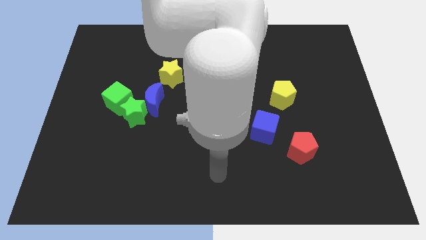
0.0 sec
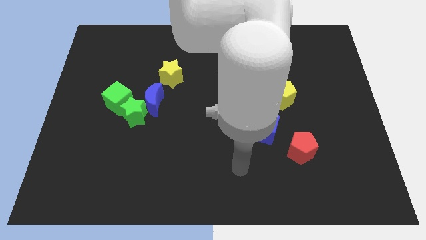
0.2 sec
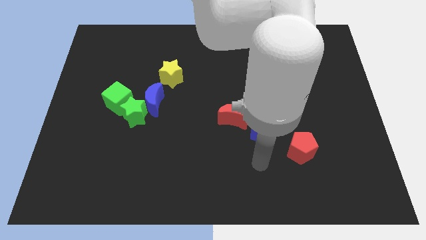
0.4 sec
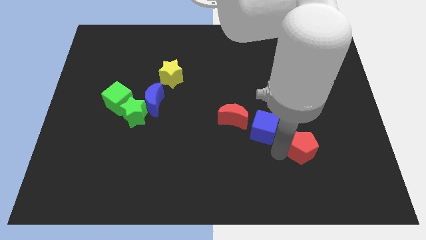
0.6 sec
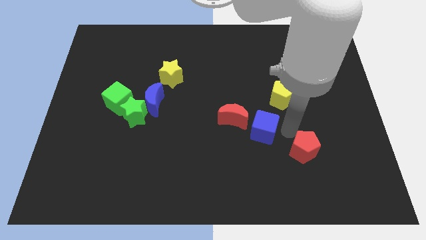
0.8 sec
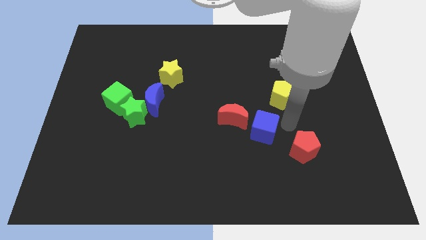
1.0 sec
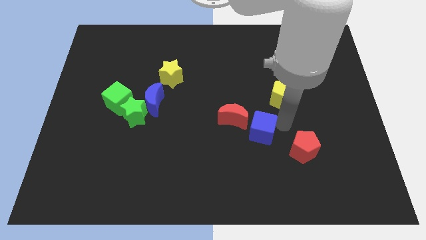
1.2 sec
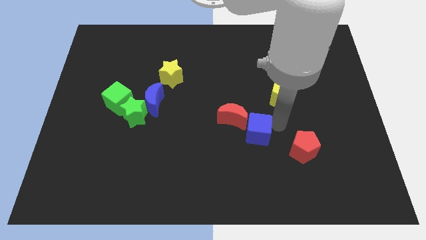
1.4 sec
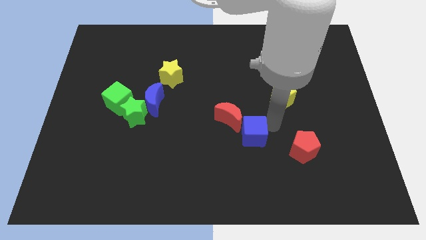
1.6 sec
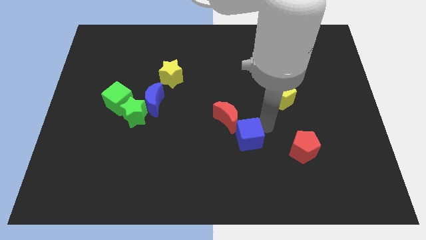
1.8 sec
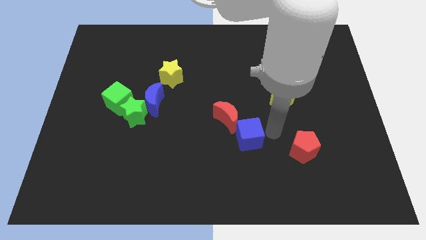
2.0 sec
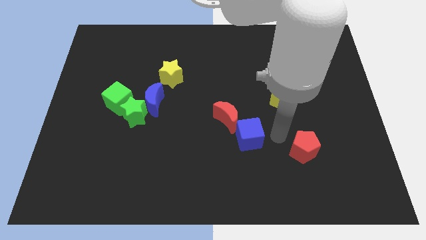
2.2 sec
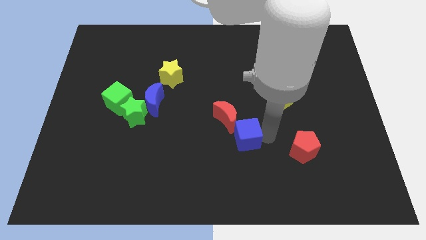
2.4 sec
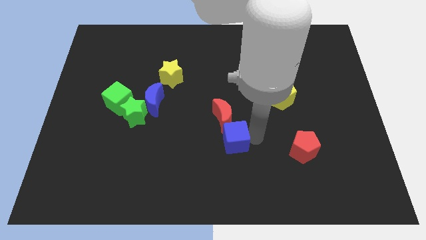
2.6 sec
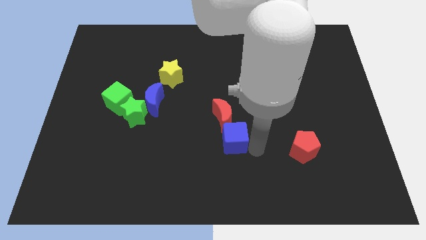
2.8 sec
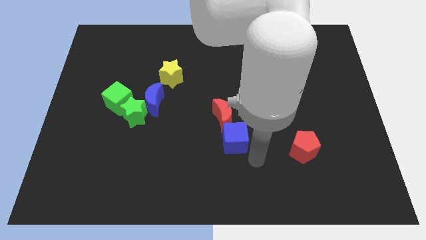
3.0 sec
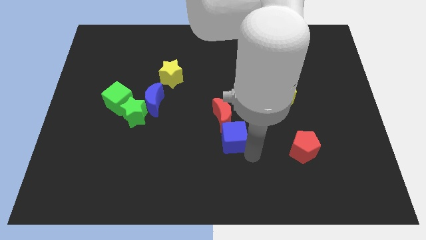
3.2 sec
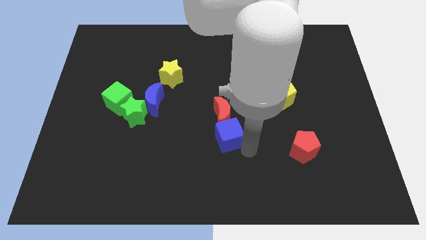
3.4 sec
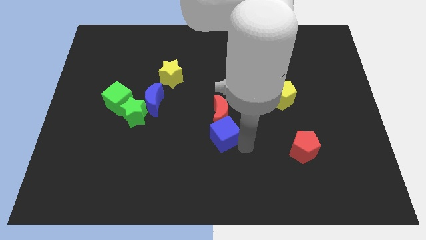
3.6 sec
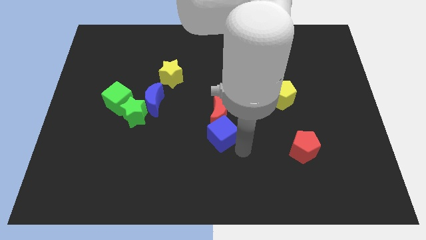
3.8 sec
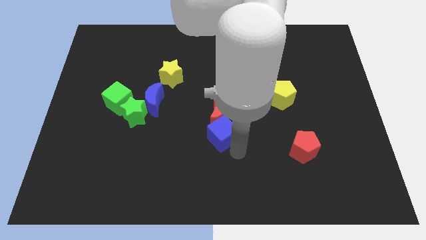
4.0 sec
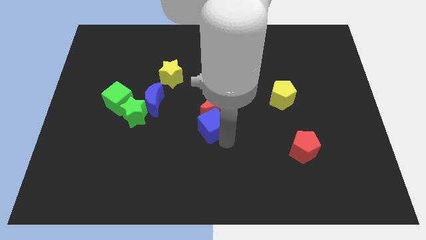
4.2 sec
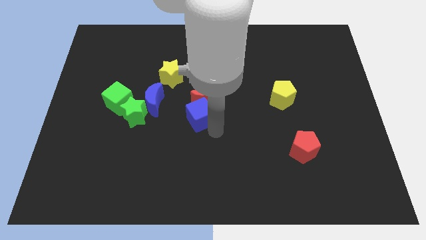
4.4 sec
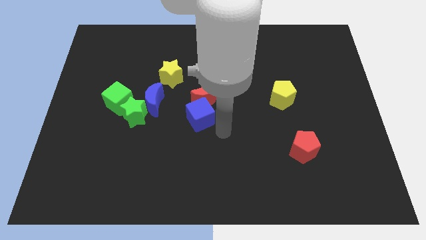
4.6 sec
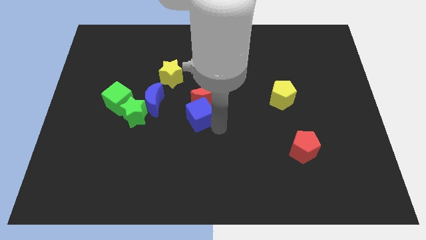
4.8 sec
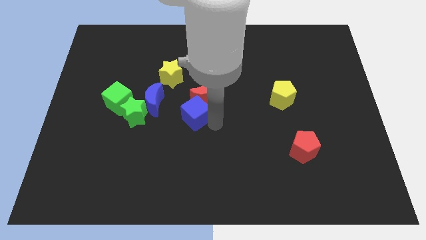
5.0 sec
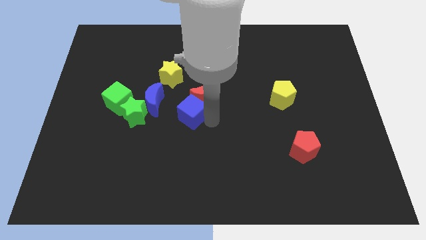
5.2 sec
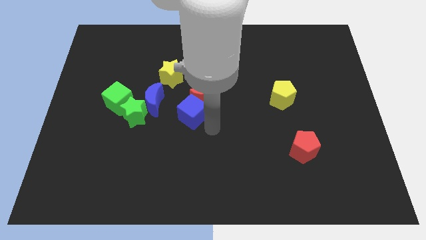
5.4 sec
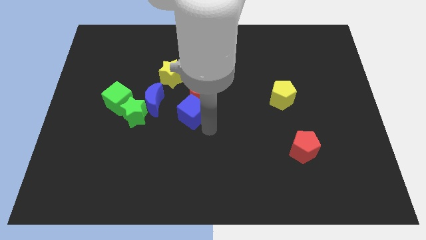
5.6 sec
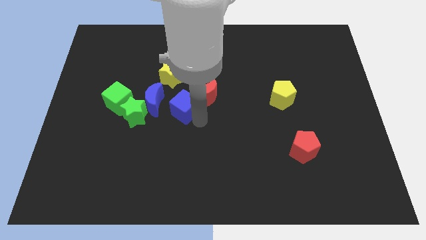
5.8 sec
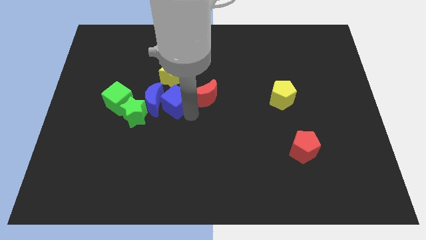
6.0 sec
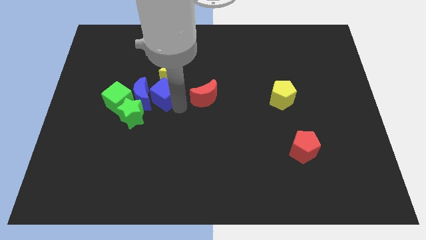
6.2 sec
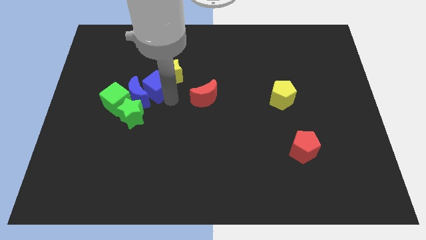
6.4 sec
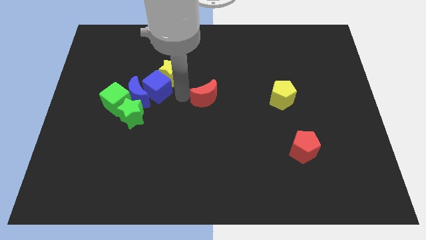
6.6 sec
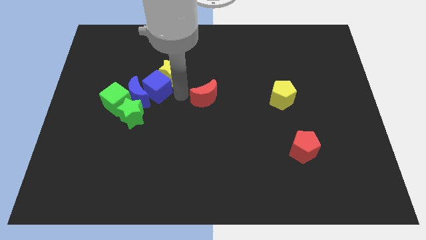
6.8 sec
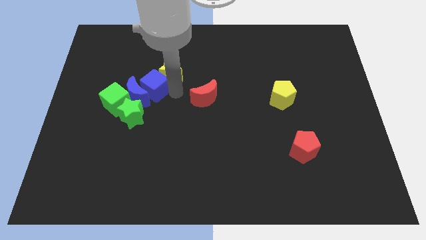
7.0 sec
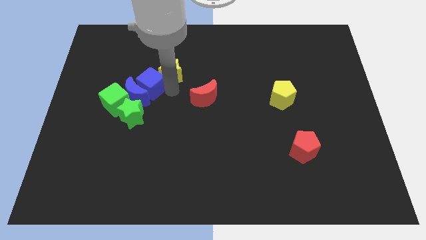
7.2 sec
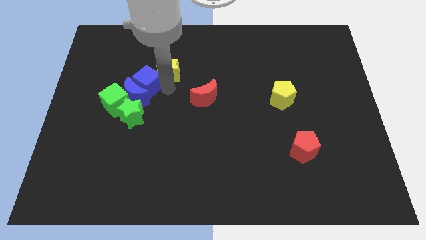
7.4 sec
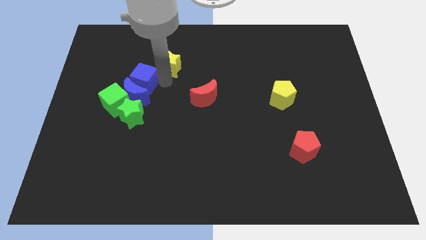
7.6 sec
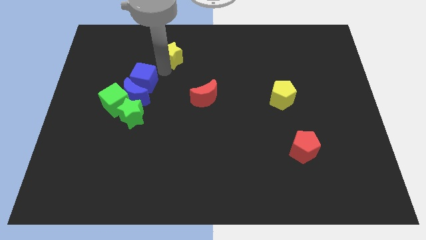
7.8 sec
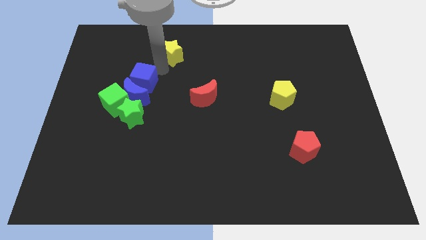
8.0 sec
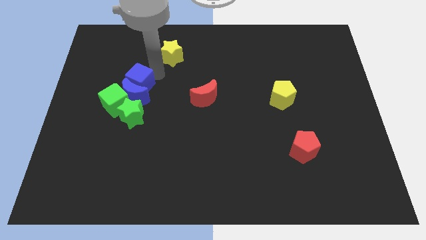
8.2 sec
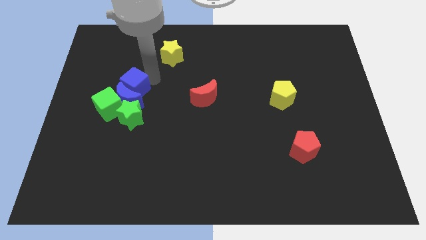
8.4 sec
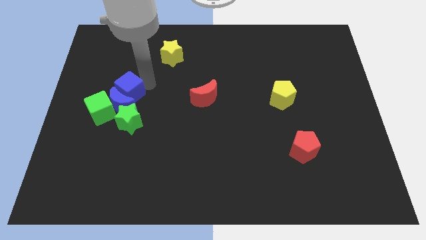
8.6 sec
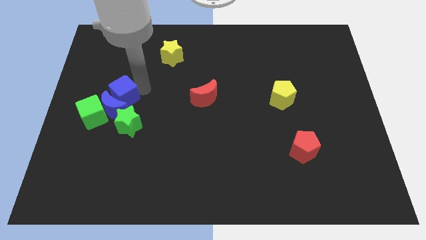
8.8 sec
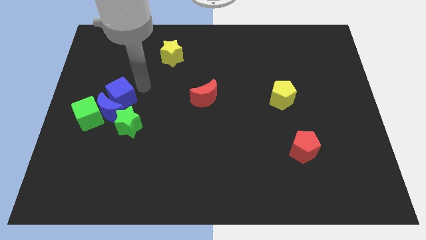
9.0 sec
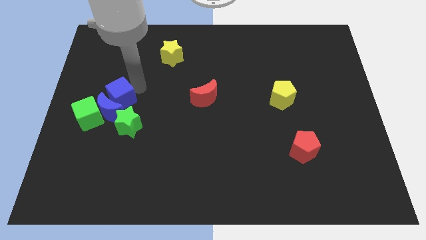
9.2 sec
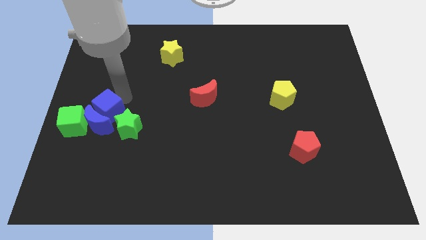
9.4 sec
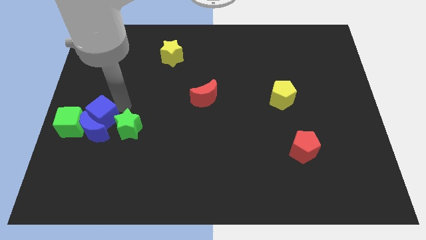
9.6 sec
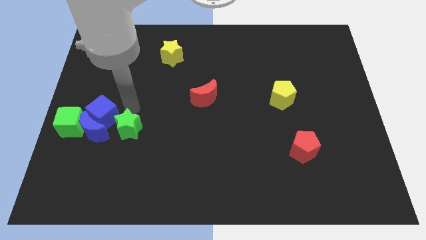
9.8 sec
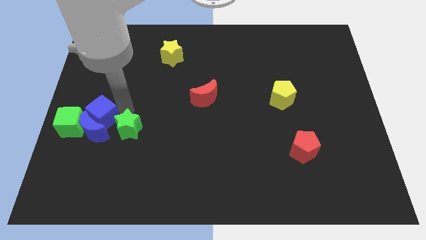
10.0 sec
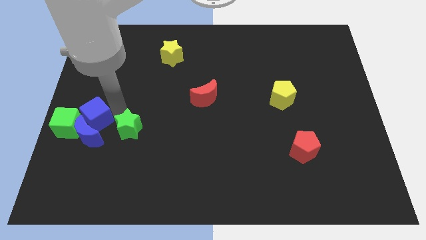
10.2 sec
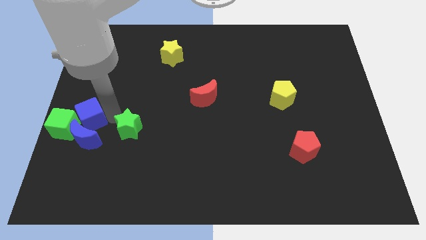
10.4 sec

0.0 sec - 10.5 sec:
move the blue cube to the green cube

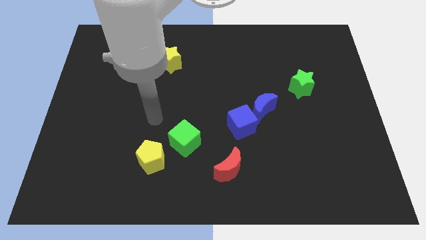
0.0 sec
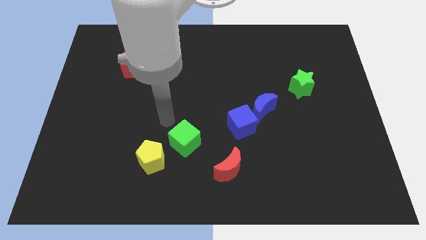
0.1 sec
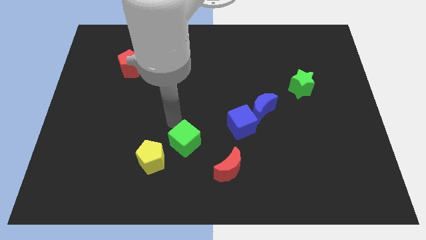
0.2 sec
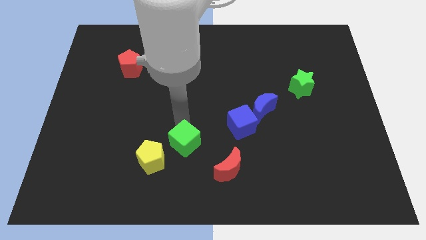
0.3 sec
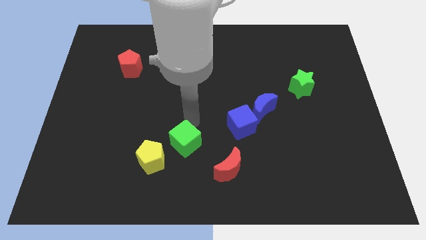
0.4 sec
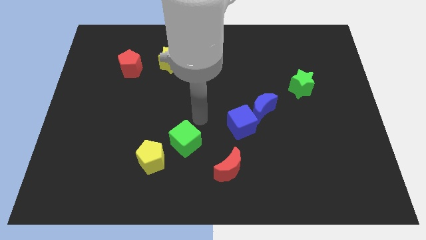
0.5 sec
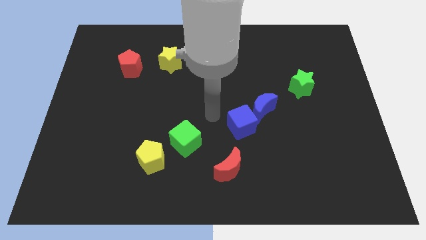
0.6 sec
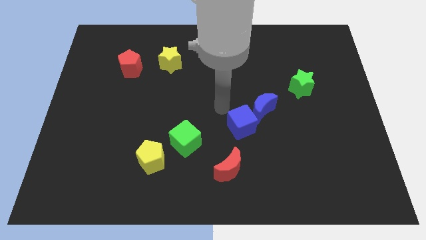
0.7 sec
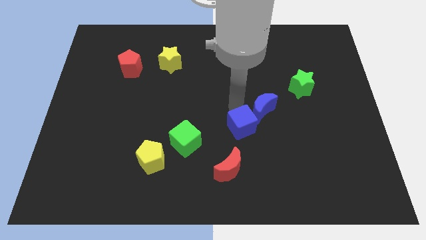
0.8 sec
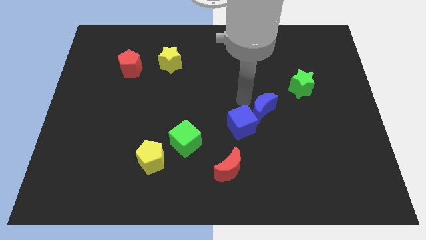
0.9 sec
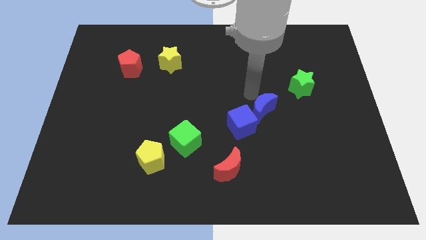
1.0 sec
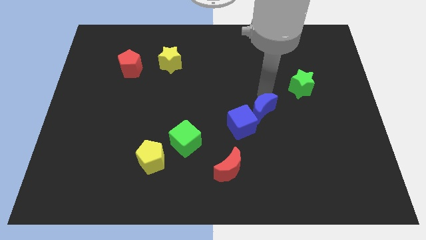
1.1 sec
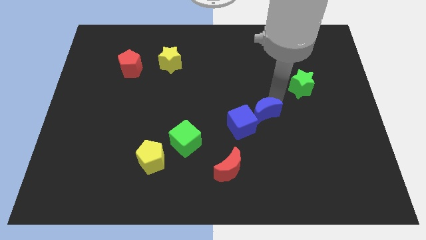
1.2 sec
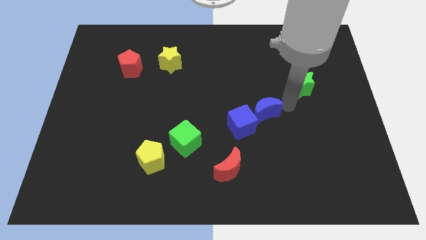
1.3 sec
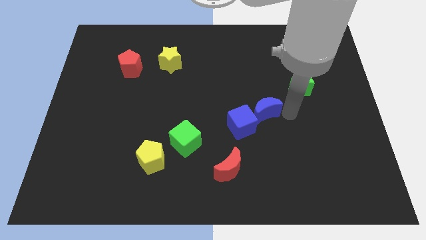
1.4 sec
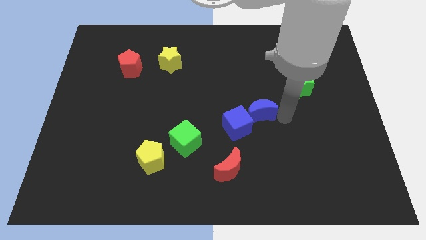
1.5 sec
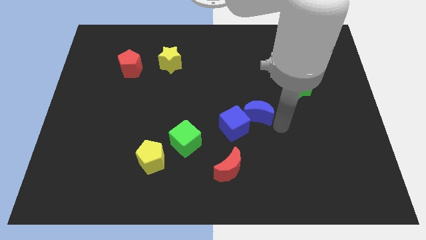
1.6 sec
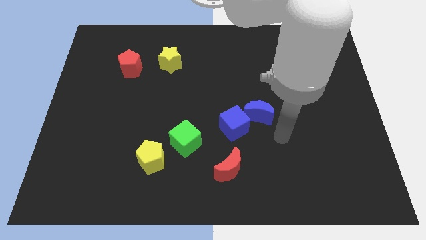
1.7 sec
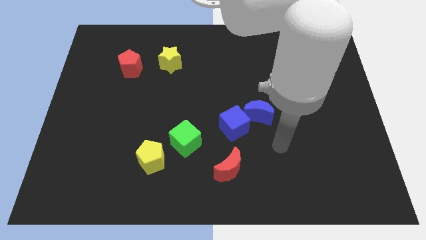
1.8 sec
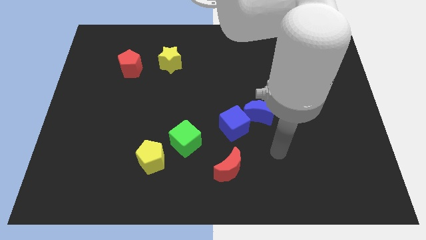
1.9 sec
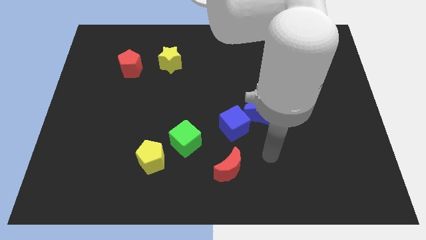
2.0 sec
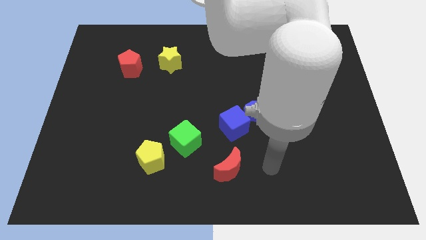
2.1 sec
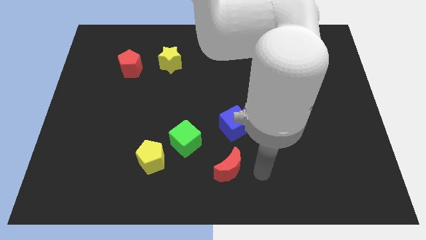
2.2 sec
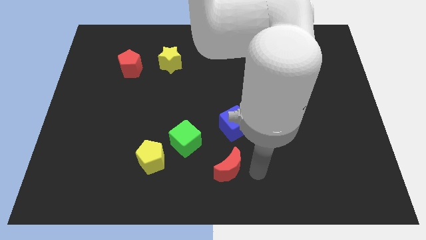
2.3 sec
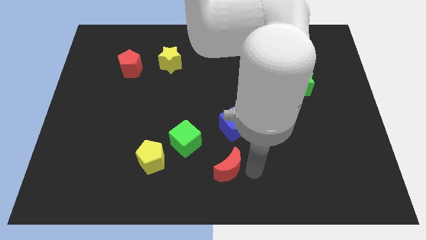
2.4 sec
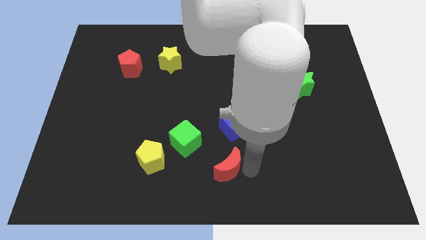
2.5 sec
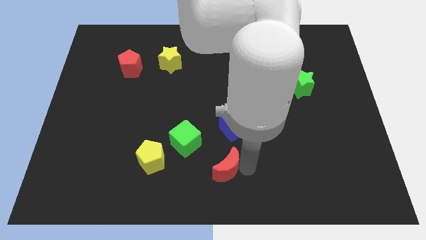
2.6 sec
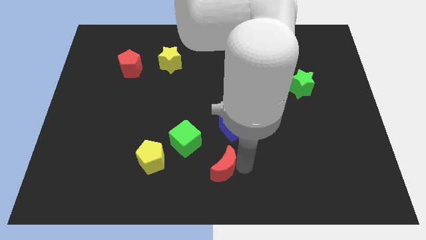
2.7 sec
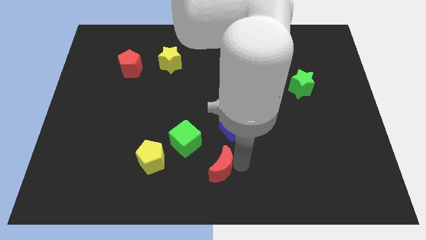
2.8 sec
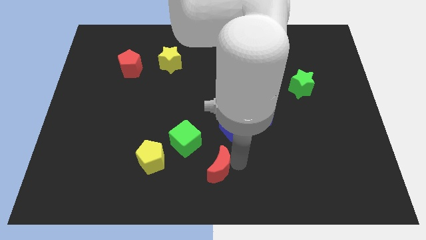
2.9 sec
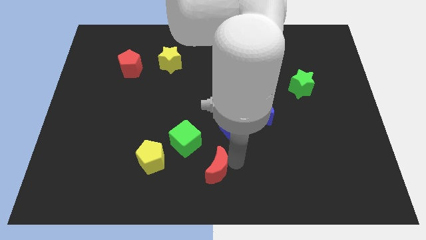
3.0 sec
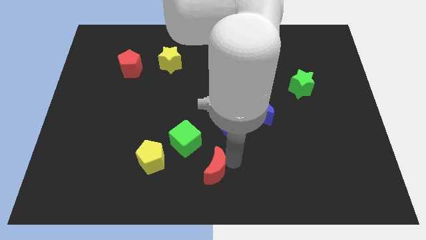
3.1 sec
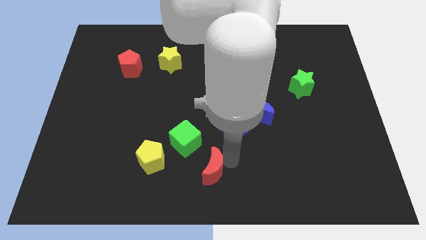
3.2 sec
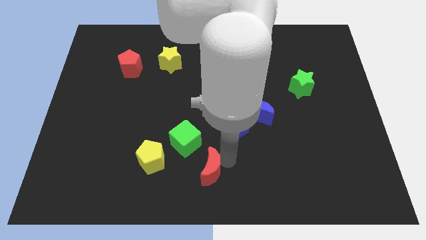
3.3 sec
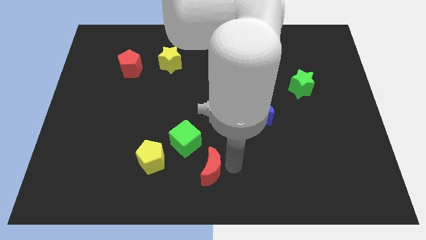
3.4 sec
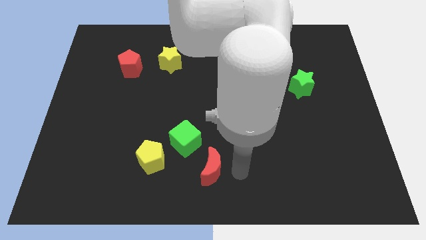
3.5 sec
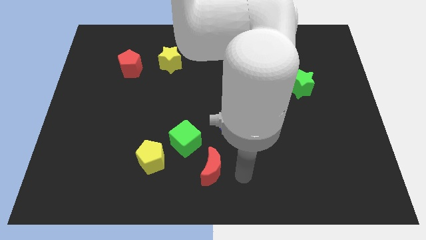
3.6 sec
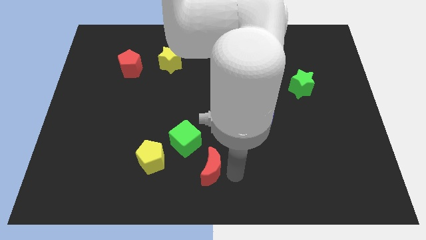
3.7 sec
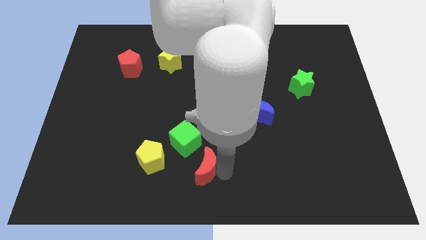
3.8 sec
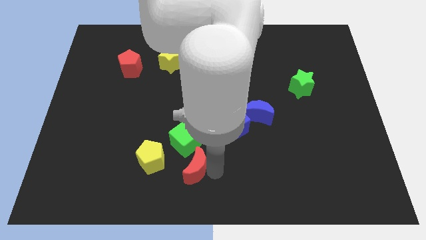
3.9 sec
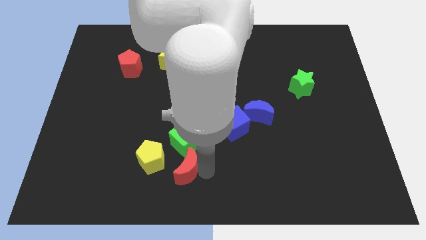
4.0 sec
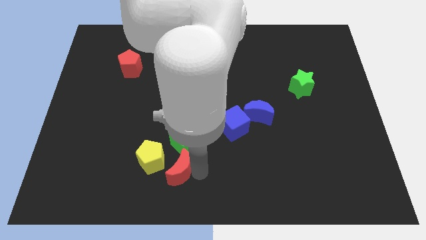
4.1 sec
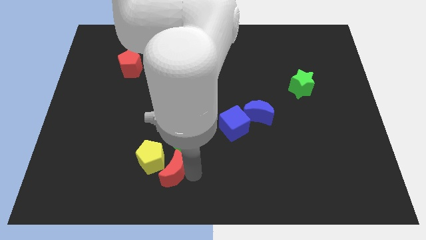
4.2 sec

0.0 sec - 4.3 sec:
move the red moon next to the yellow pentagon
